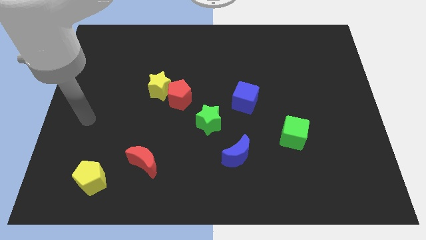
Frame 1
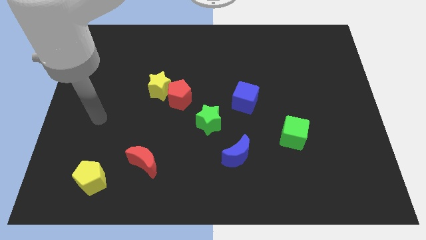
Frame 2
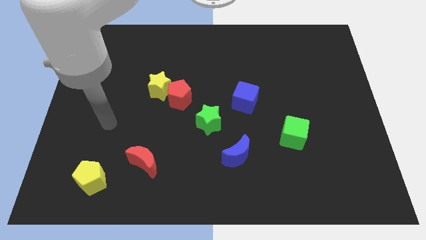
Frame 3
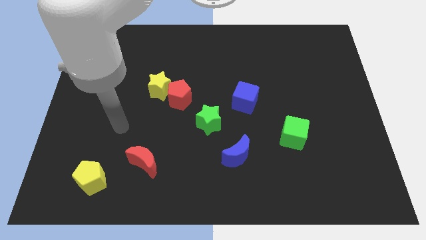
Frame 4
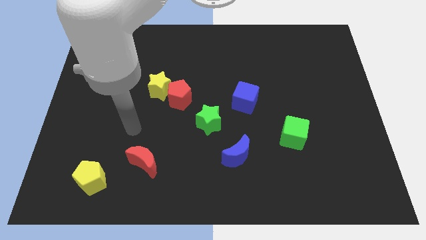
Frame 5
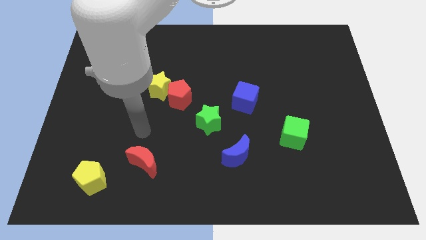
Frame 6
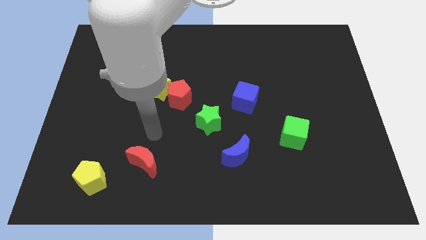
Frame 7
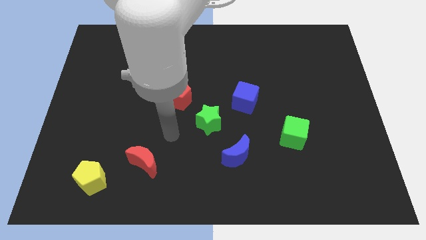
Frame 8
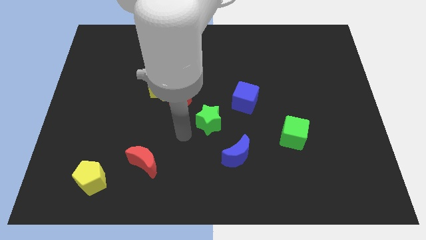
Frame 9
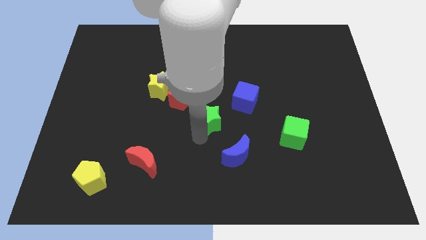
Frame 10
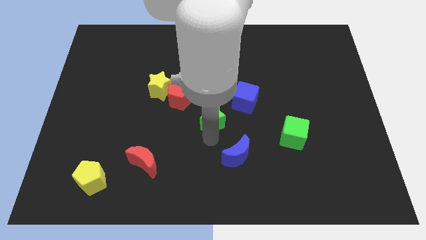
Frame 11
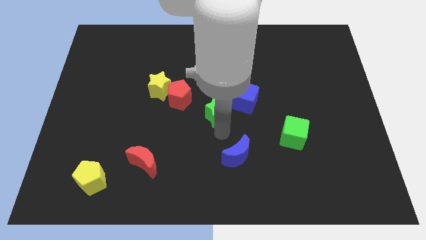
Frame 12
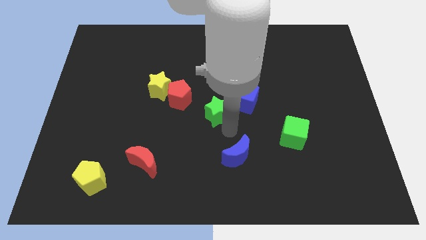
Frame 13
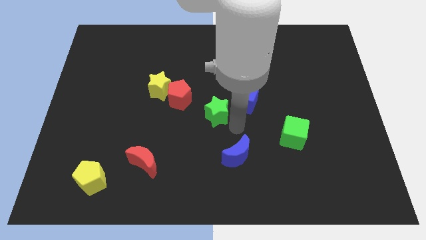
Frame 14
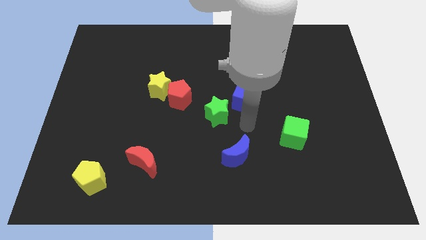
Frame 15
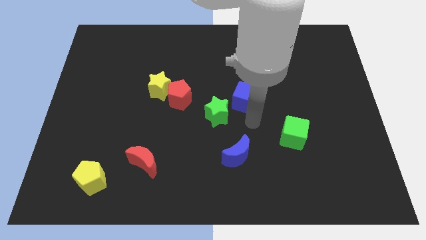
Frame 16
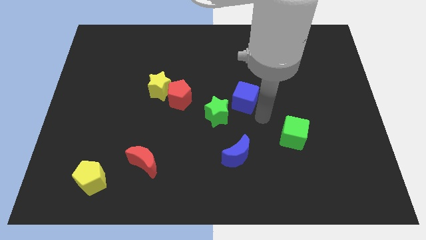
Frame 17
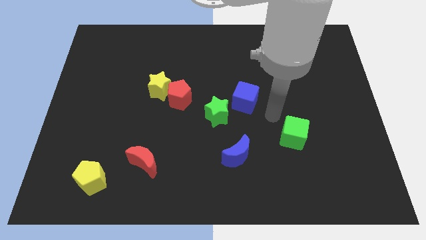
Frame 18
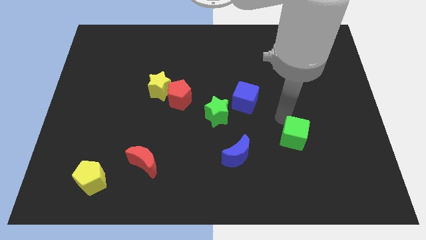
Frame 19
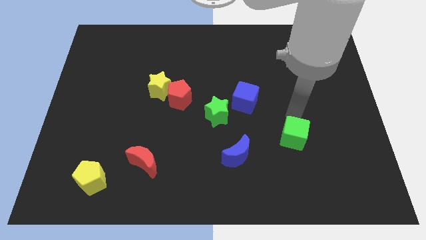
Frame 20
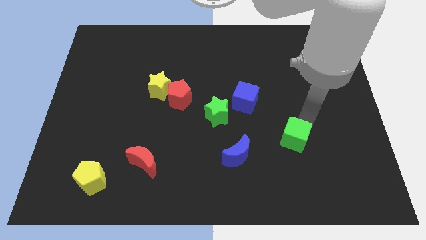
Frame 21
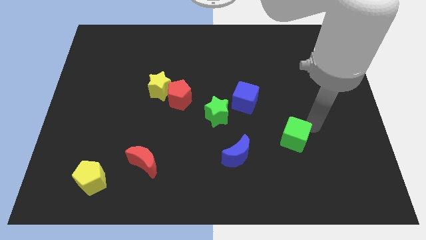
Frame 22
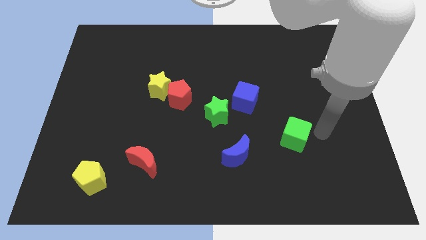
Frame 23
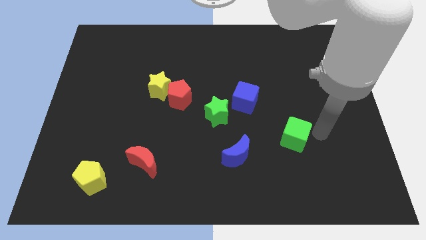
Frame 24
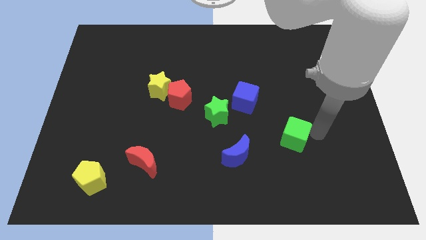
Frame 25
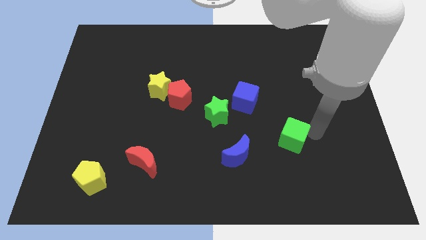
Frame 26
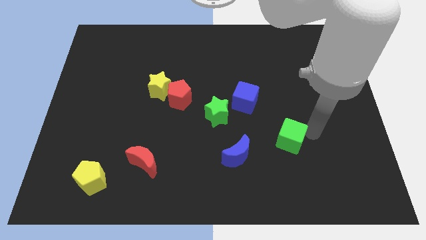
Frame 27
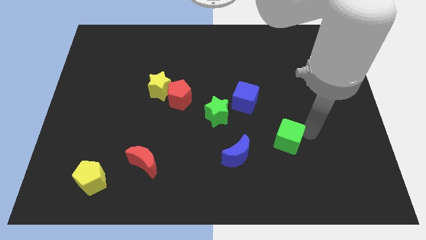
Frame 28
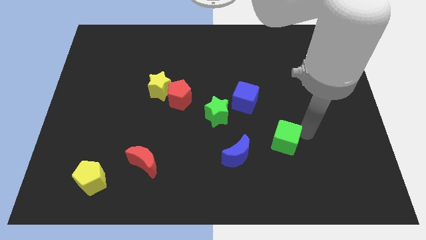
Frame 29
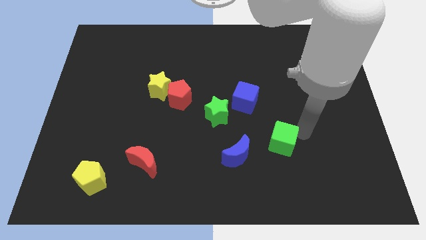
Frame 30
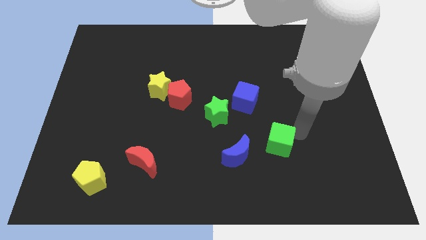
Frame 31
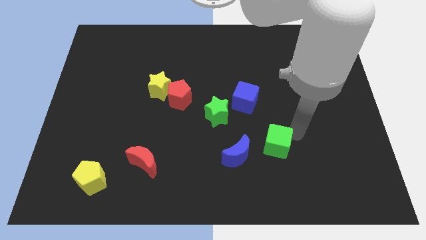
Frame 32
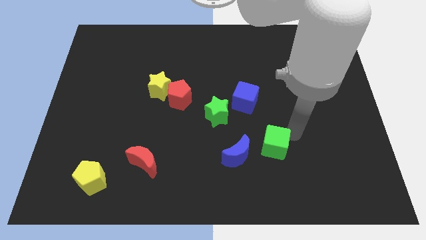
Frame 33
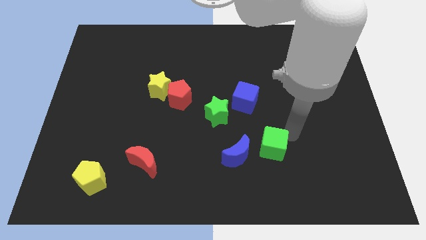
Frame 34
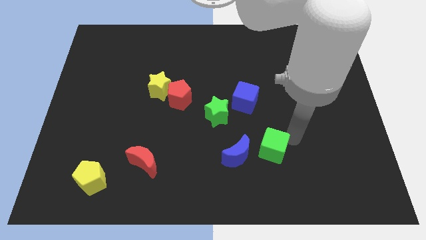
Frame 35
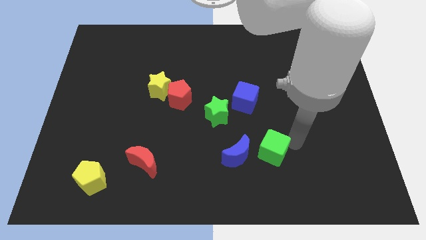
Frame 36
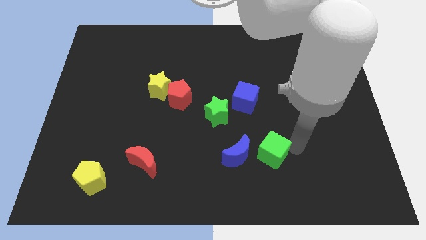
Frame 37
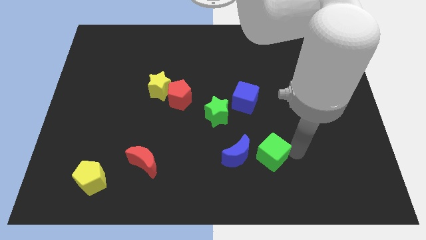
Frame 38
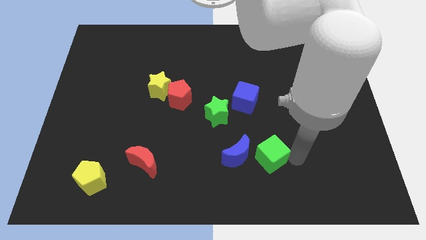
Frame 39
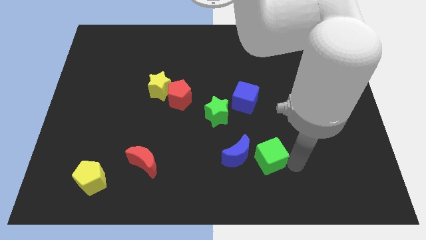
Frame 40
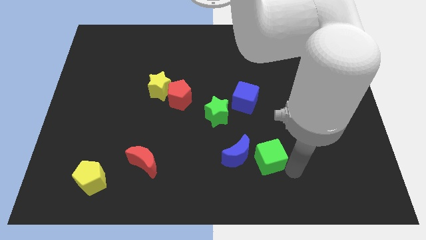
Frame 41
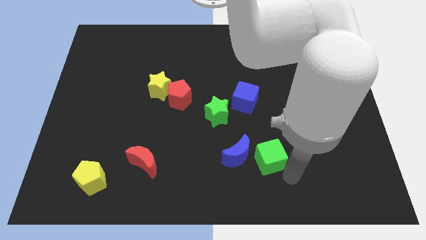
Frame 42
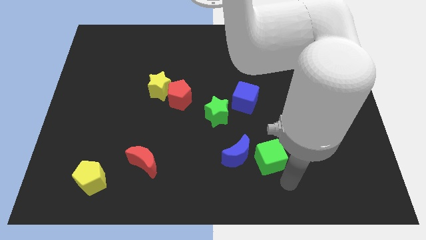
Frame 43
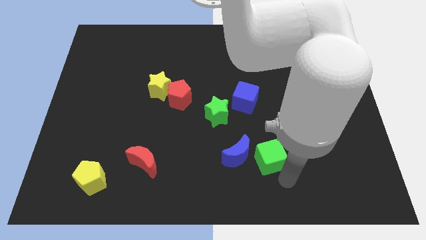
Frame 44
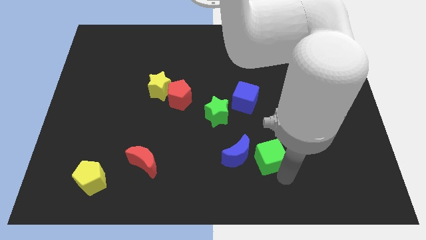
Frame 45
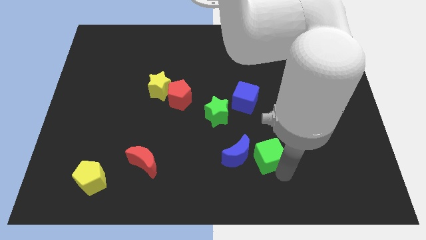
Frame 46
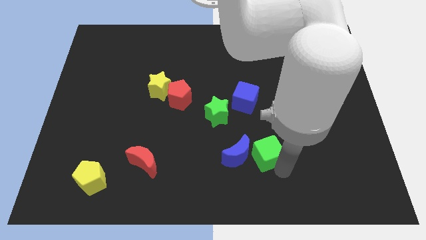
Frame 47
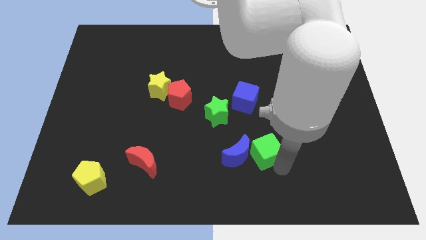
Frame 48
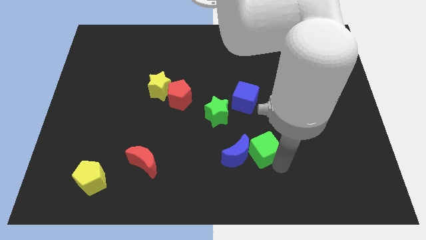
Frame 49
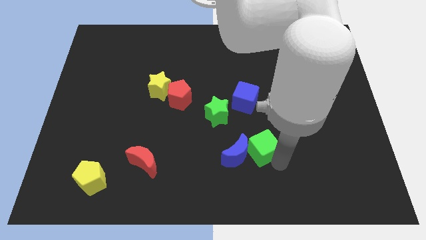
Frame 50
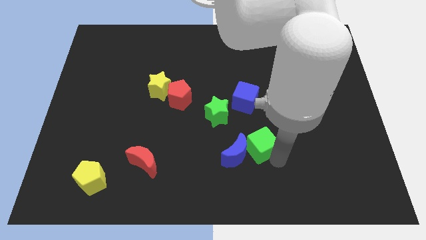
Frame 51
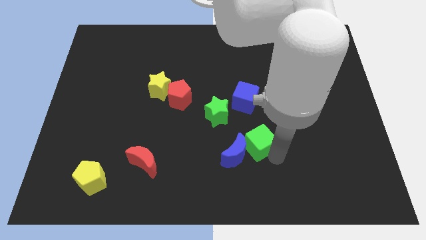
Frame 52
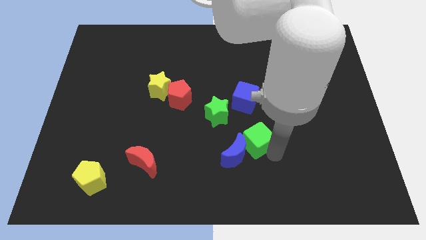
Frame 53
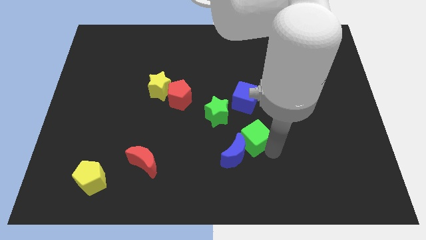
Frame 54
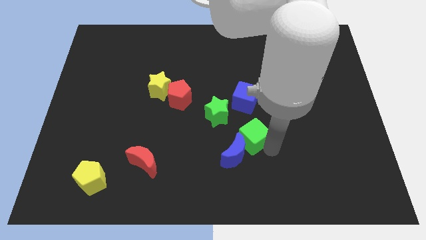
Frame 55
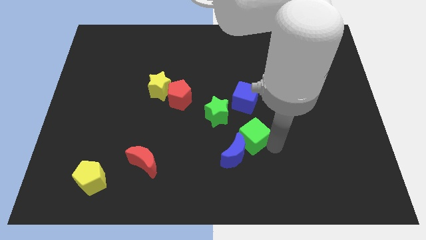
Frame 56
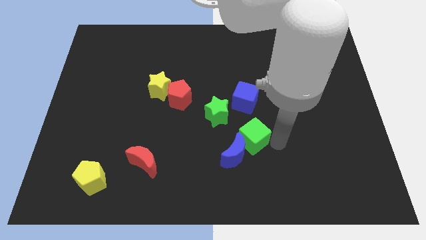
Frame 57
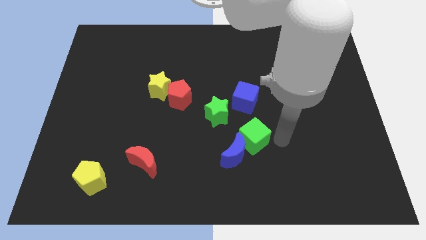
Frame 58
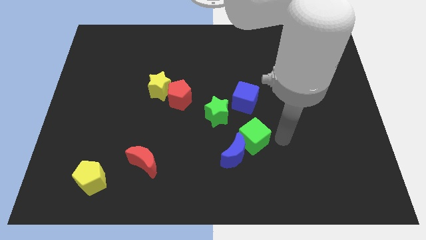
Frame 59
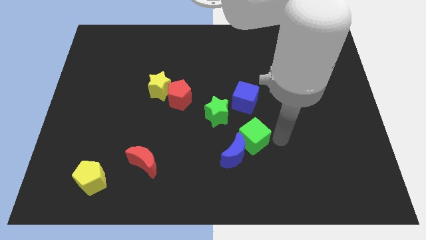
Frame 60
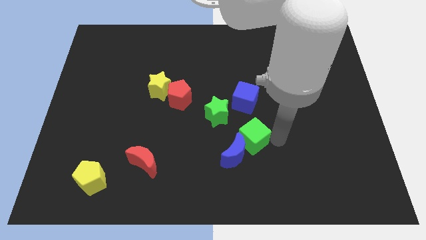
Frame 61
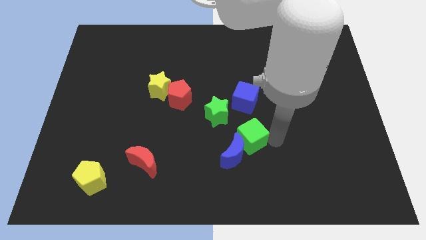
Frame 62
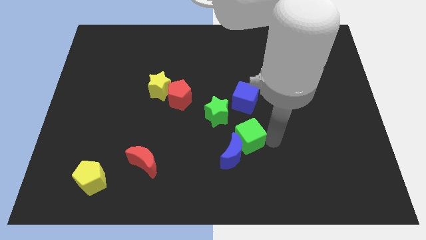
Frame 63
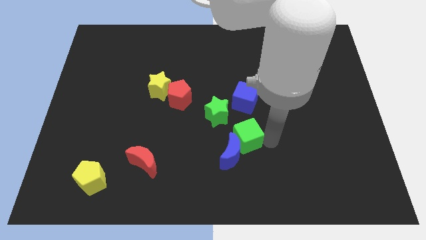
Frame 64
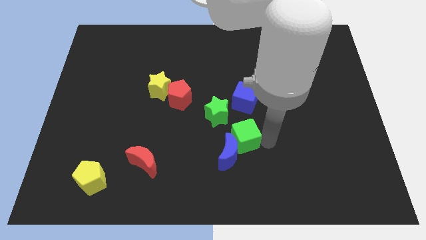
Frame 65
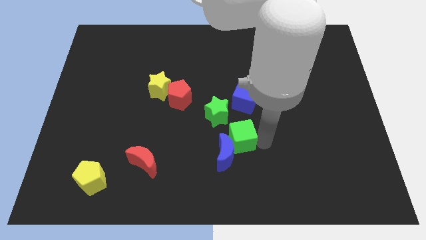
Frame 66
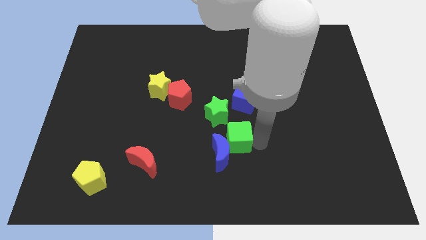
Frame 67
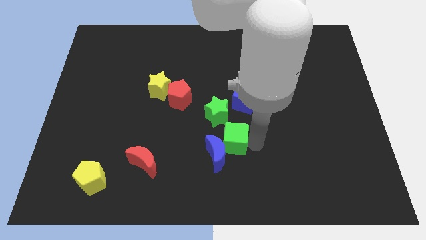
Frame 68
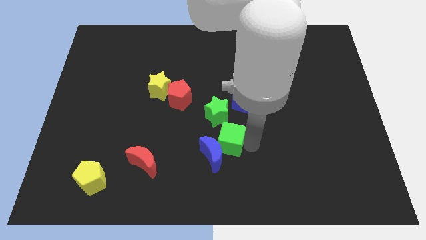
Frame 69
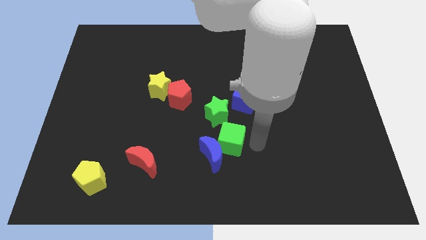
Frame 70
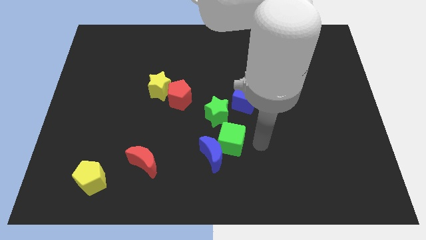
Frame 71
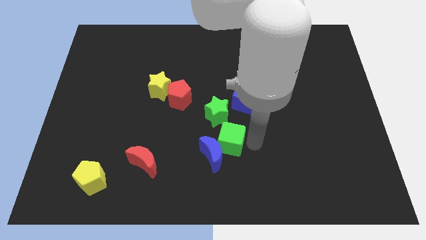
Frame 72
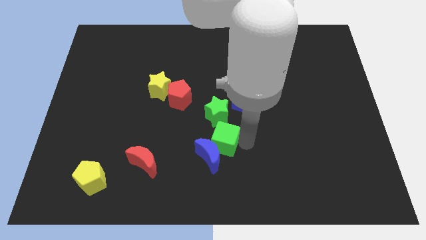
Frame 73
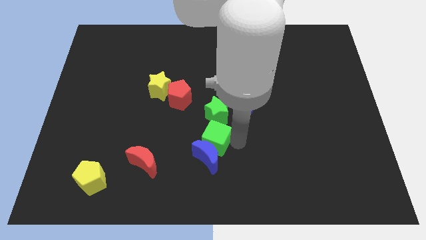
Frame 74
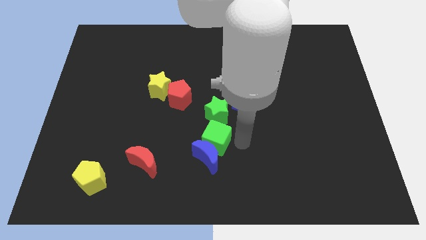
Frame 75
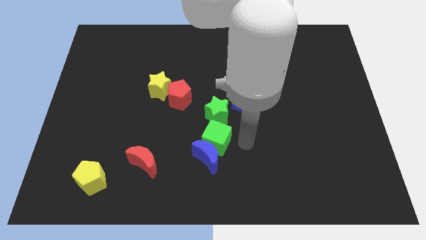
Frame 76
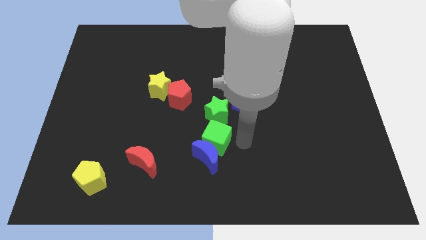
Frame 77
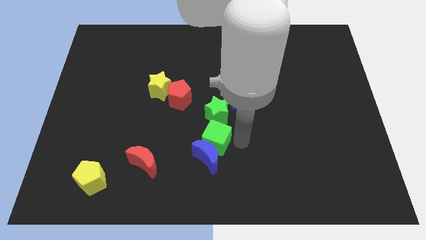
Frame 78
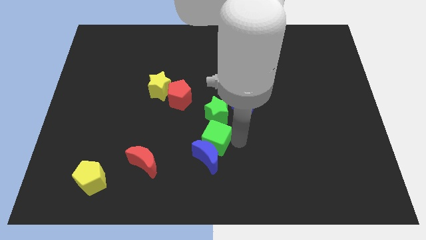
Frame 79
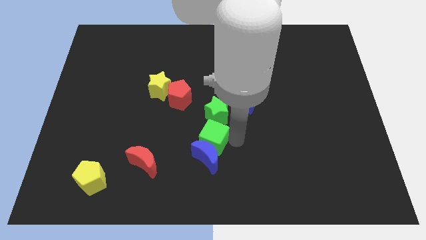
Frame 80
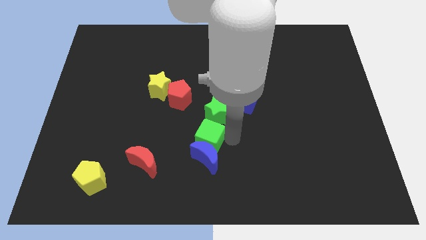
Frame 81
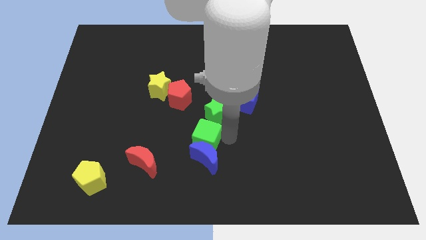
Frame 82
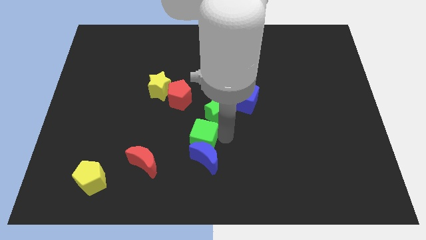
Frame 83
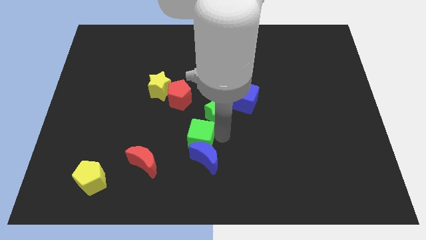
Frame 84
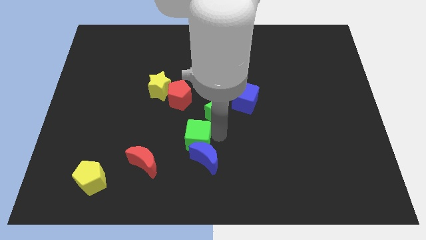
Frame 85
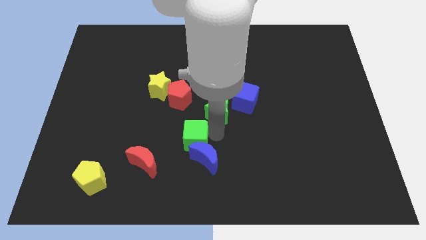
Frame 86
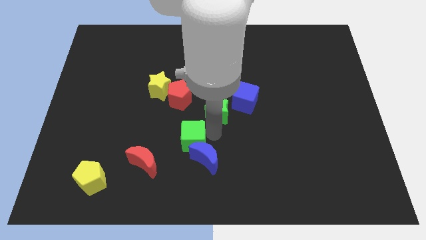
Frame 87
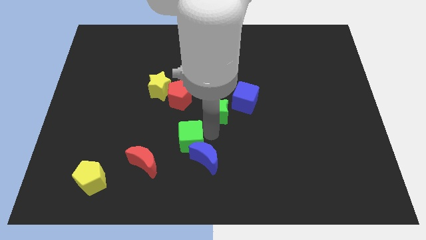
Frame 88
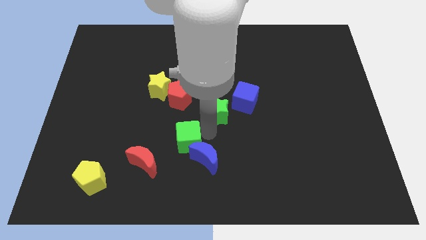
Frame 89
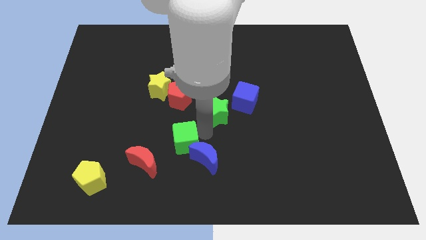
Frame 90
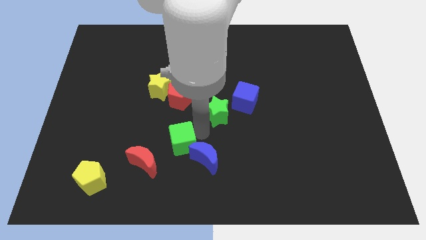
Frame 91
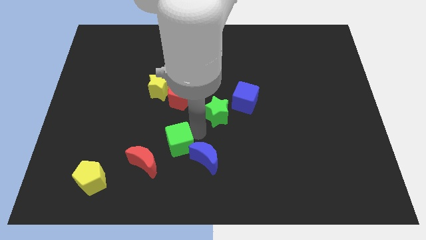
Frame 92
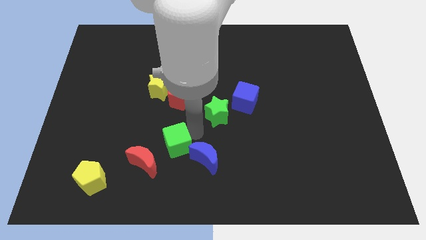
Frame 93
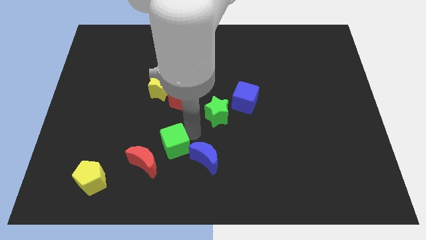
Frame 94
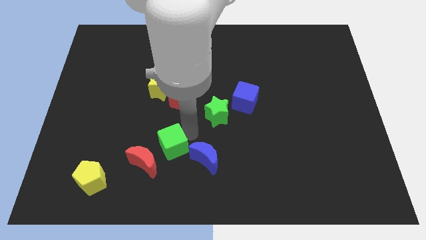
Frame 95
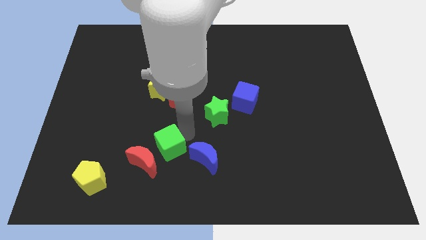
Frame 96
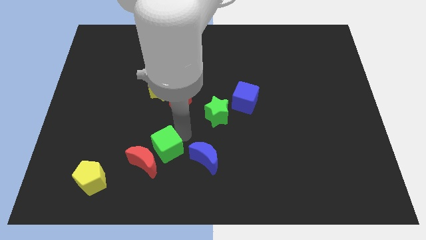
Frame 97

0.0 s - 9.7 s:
move the green cube towards the red moon
